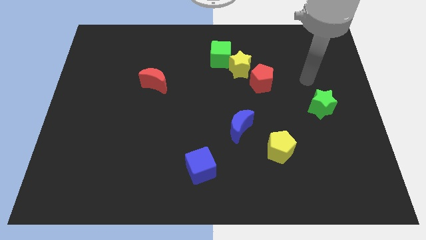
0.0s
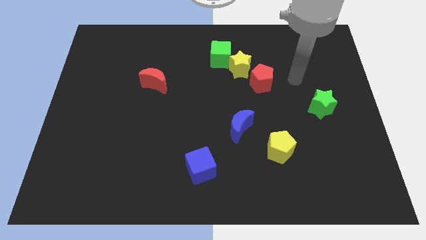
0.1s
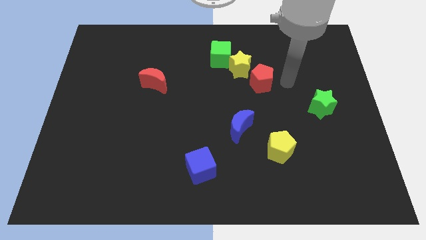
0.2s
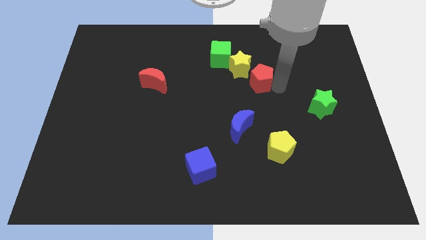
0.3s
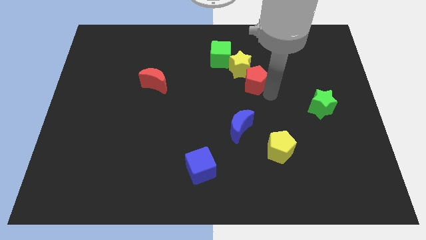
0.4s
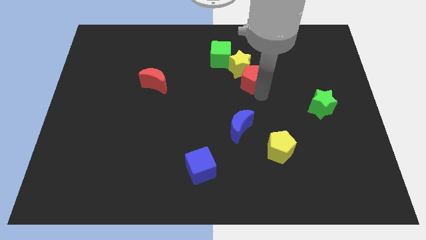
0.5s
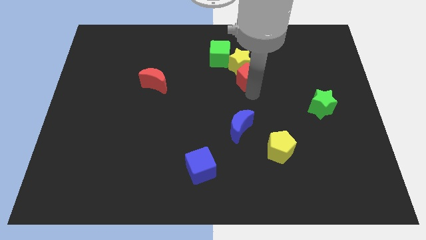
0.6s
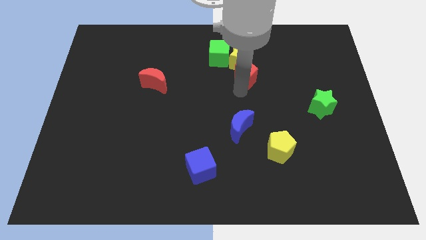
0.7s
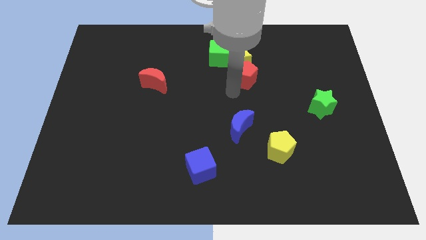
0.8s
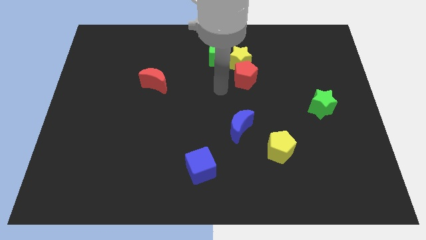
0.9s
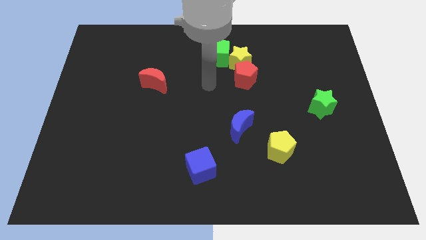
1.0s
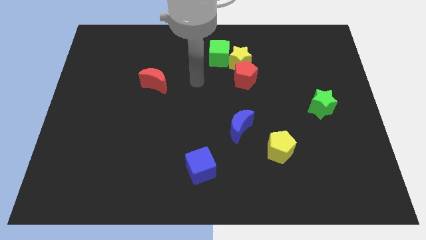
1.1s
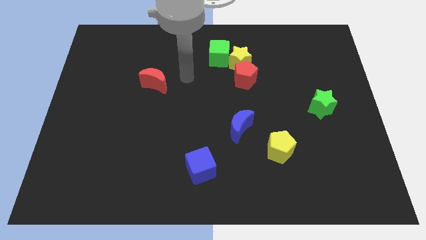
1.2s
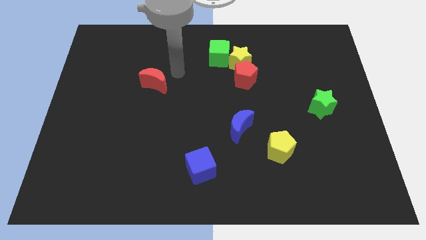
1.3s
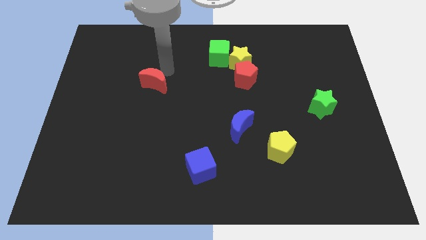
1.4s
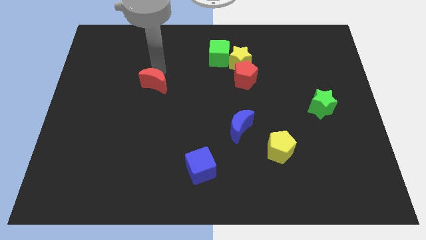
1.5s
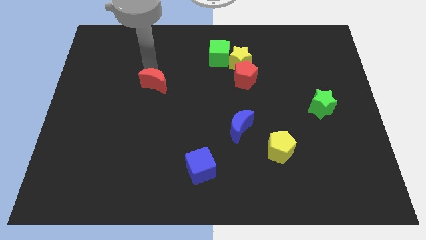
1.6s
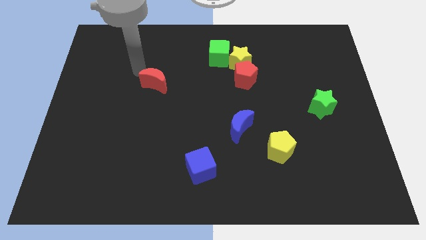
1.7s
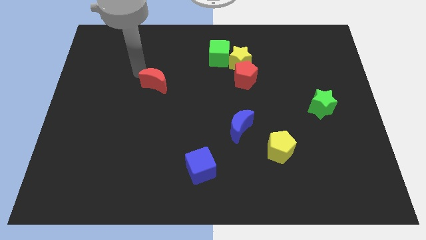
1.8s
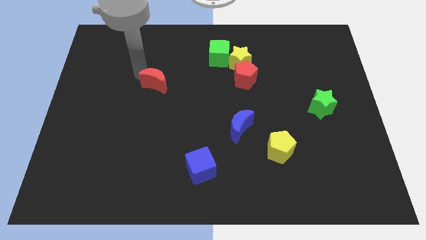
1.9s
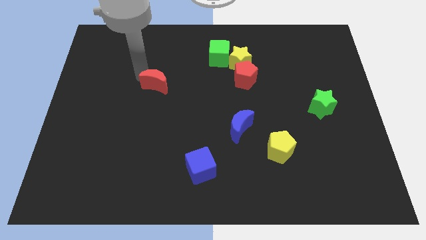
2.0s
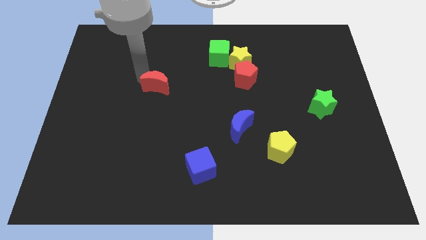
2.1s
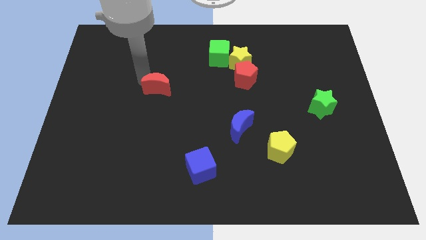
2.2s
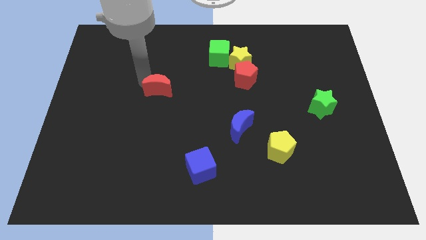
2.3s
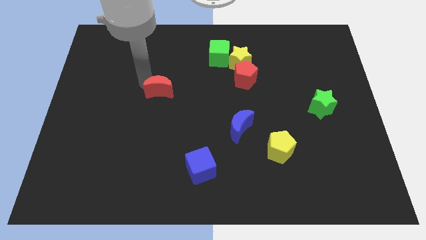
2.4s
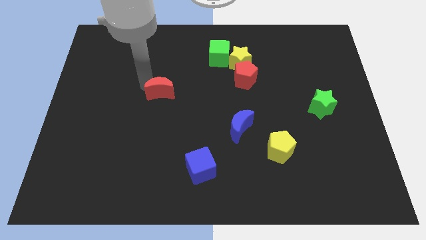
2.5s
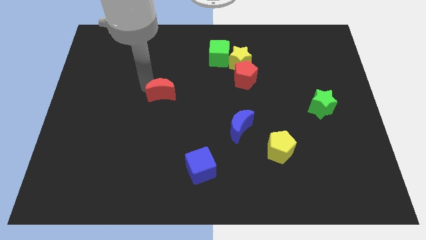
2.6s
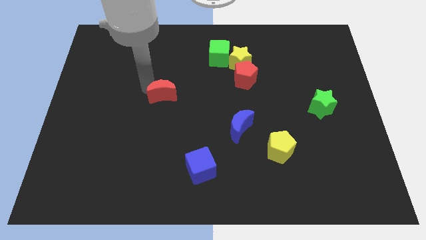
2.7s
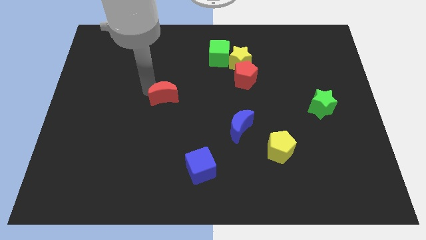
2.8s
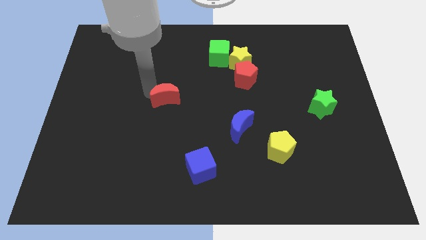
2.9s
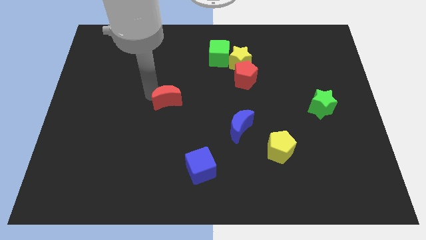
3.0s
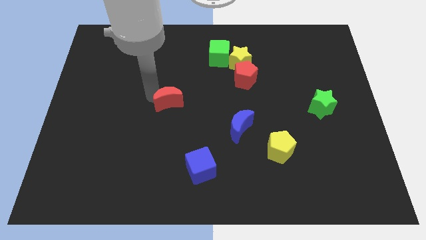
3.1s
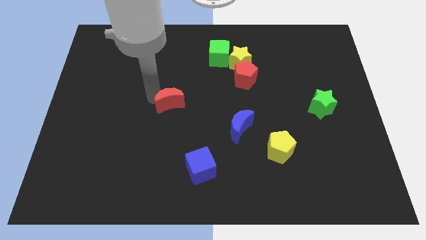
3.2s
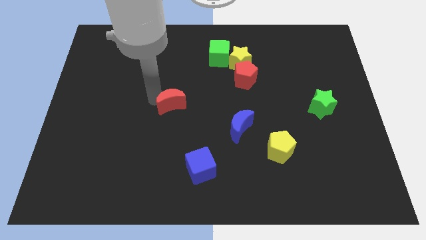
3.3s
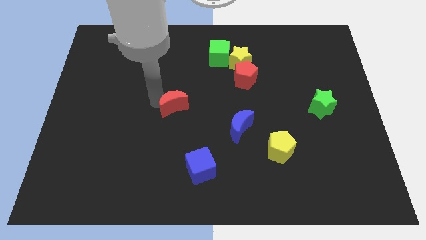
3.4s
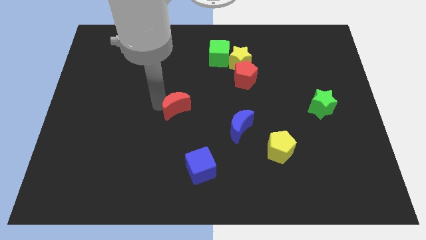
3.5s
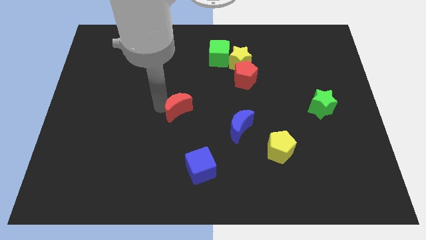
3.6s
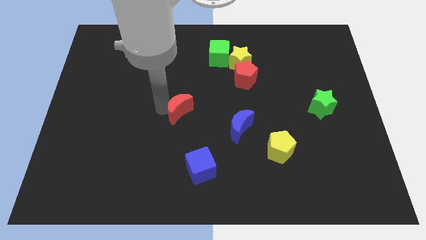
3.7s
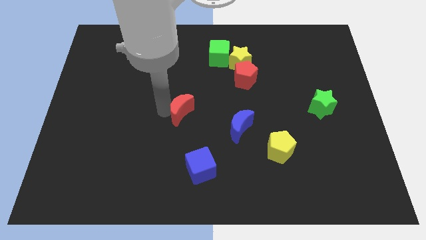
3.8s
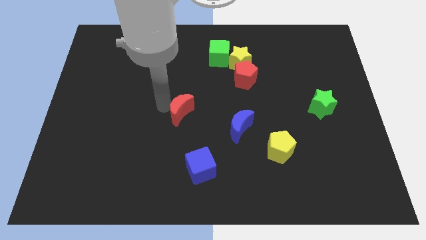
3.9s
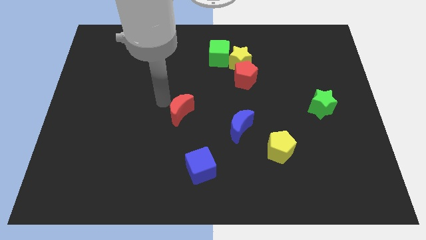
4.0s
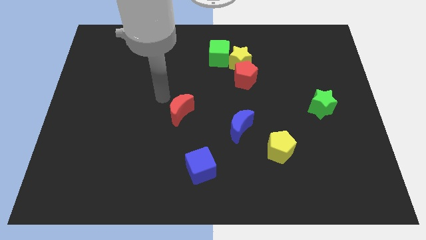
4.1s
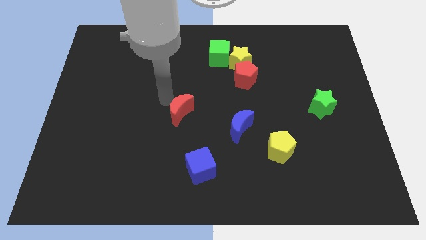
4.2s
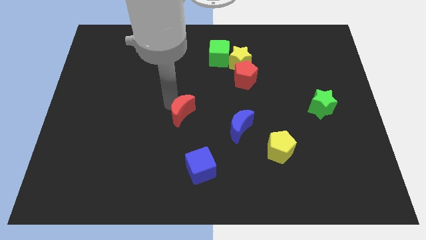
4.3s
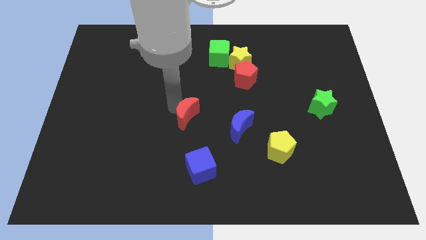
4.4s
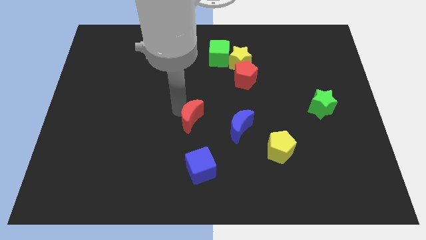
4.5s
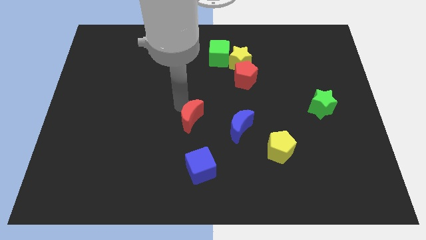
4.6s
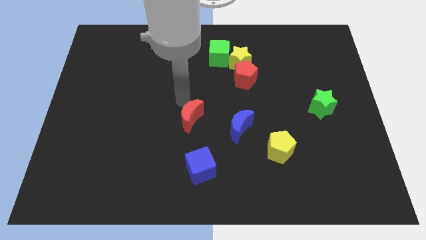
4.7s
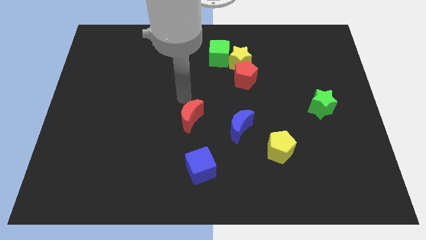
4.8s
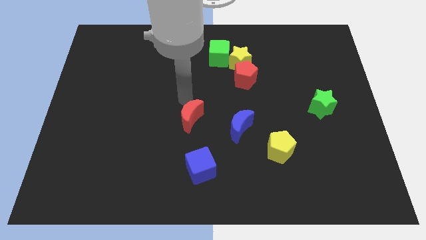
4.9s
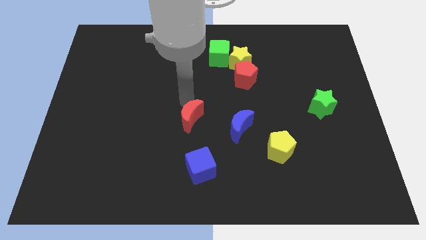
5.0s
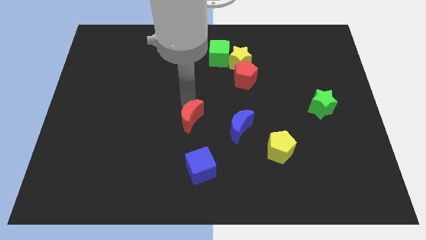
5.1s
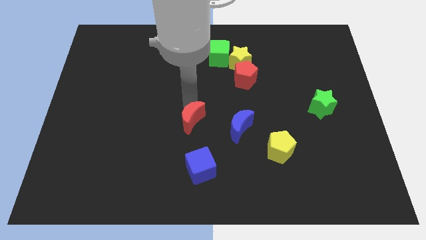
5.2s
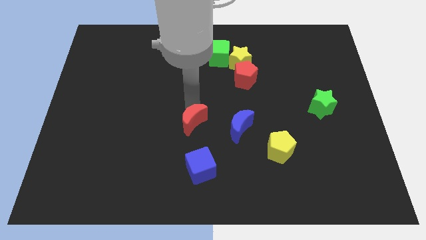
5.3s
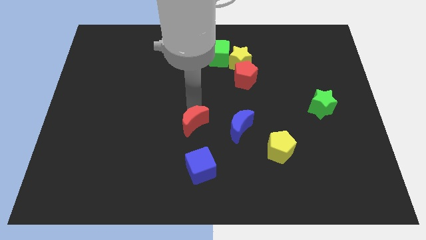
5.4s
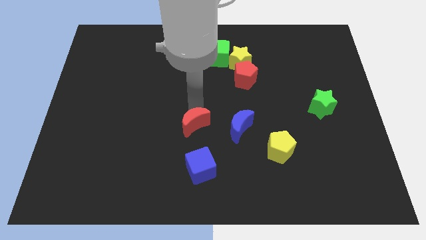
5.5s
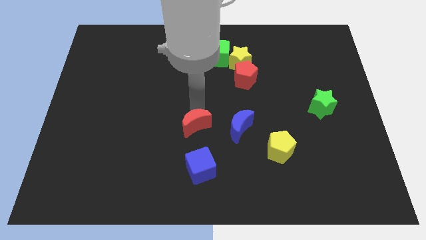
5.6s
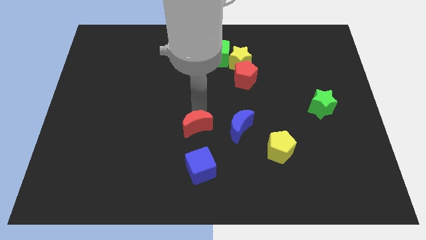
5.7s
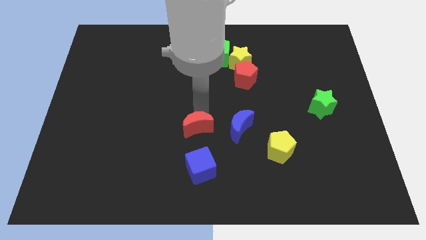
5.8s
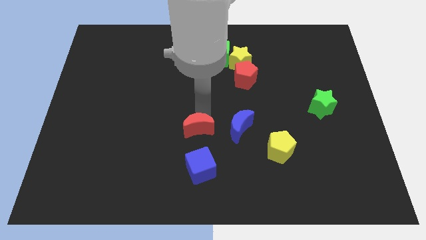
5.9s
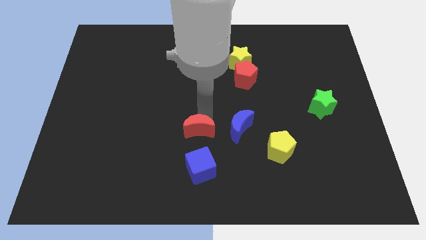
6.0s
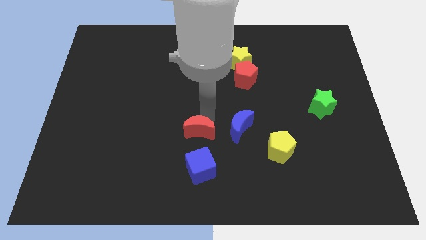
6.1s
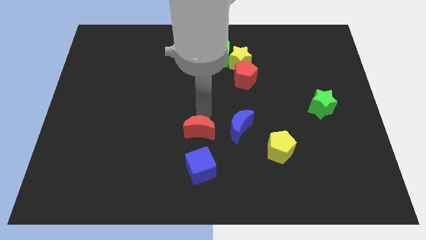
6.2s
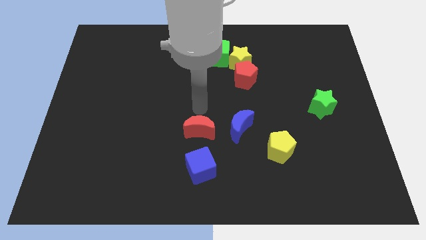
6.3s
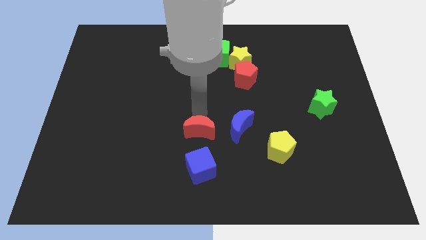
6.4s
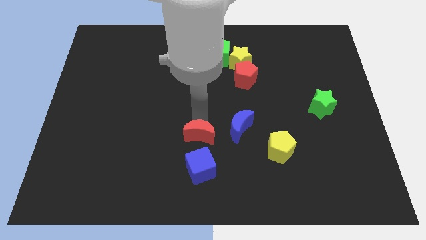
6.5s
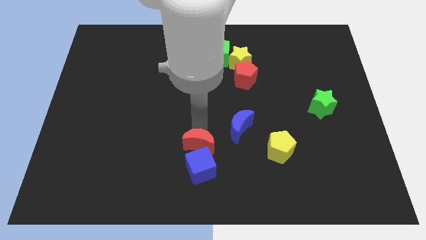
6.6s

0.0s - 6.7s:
put the red moon close to the blue cube

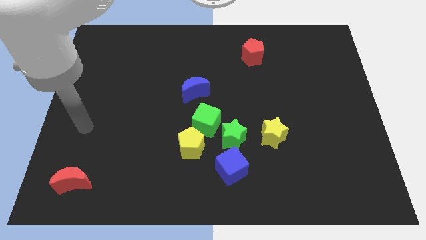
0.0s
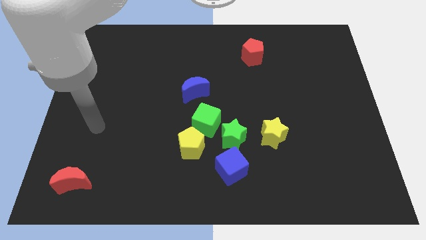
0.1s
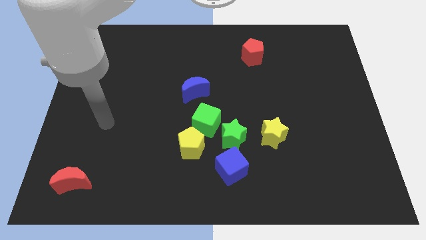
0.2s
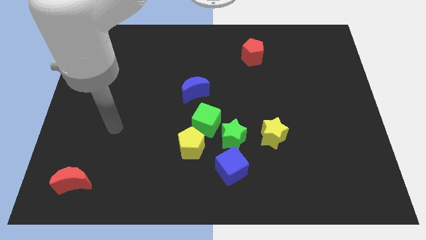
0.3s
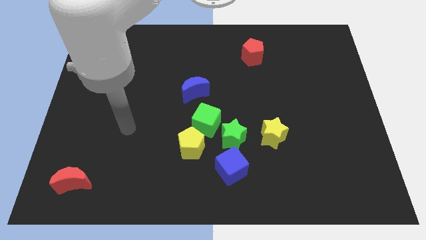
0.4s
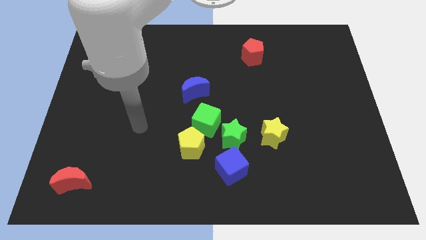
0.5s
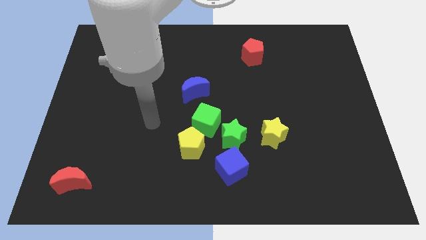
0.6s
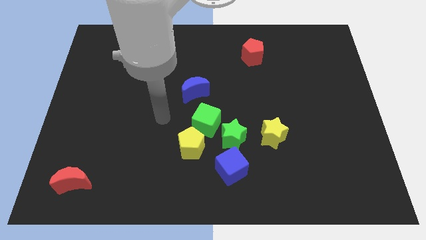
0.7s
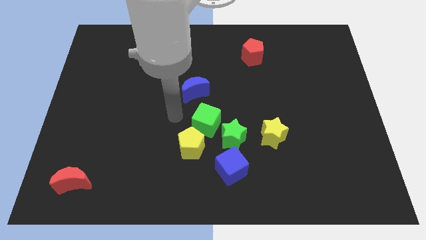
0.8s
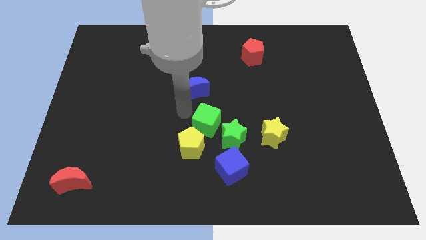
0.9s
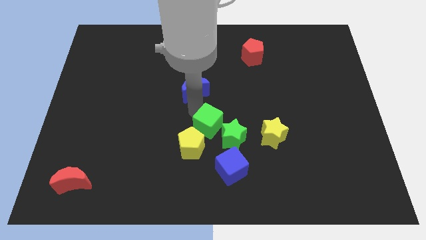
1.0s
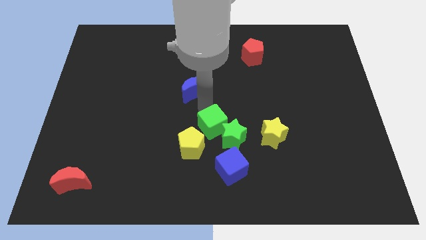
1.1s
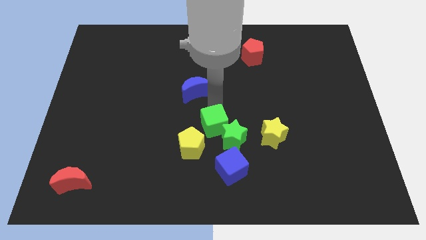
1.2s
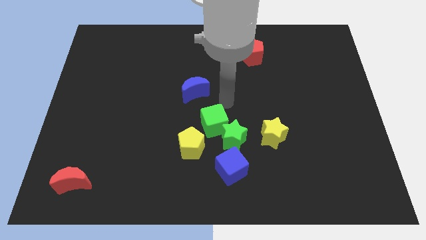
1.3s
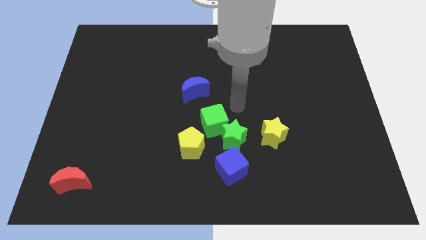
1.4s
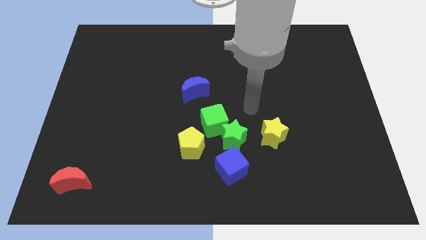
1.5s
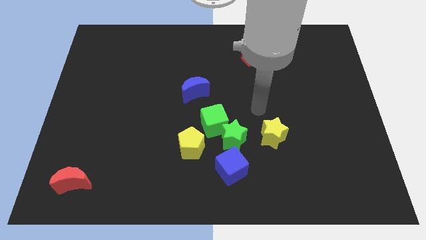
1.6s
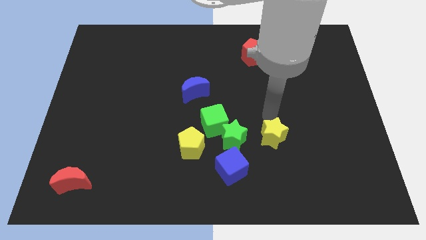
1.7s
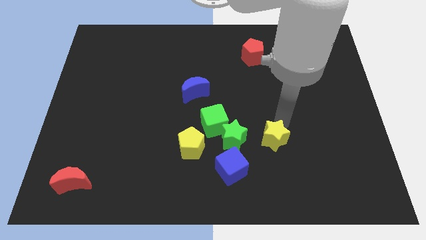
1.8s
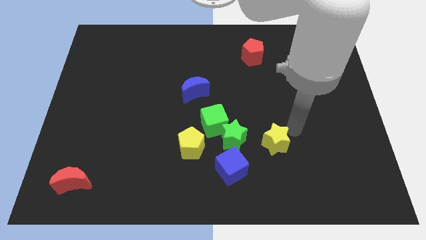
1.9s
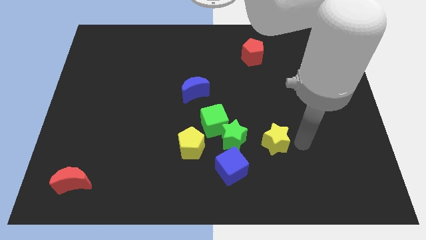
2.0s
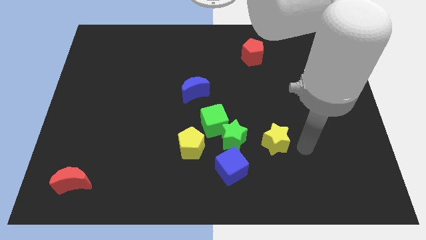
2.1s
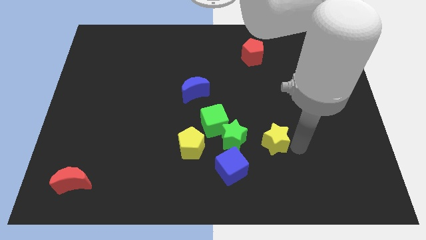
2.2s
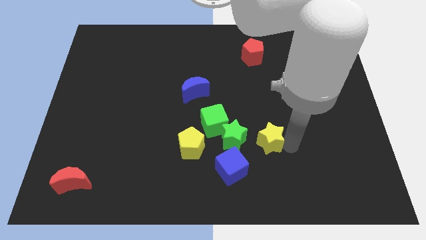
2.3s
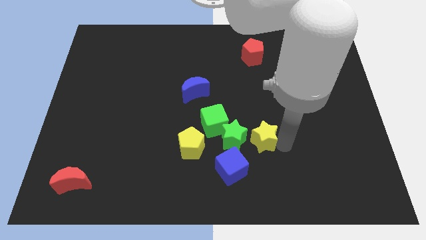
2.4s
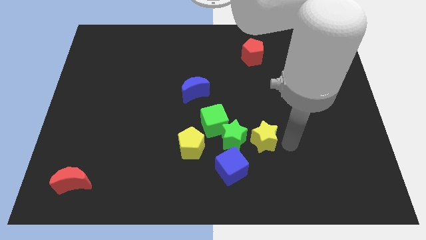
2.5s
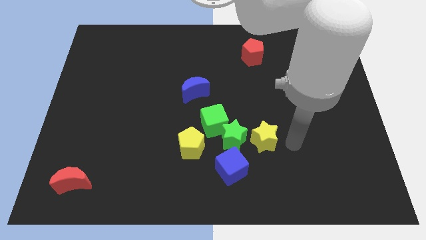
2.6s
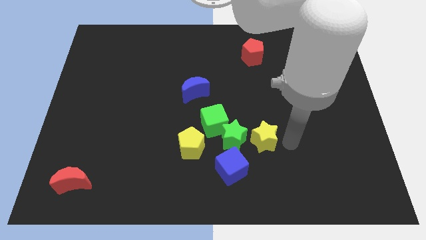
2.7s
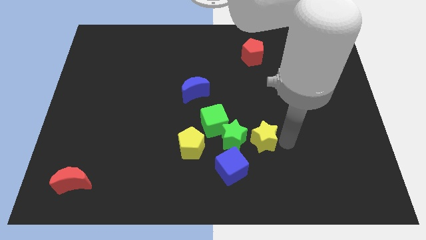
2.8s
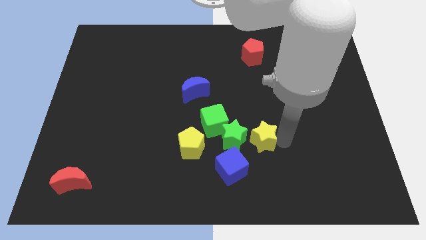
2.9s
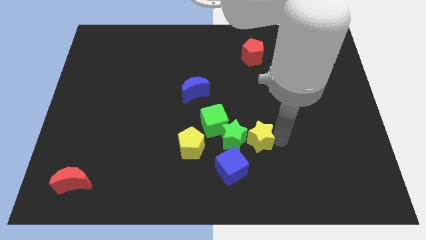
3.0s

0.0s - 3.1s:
put the yellow star towards the green star
